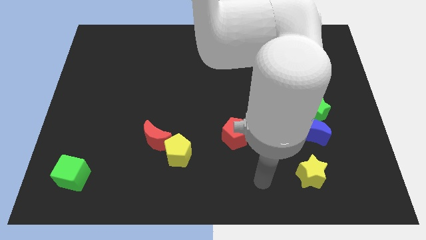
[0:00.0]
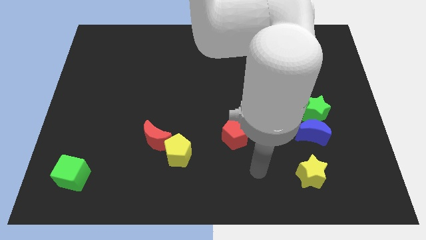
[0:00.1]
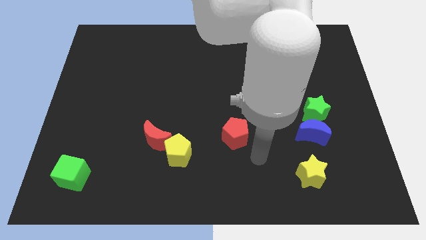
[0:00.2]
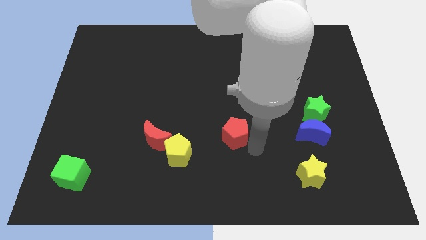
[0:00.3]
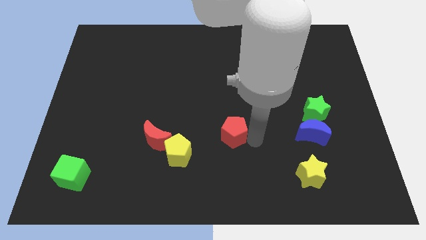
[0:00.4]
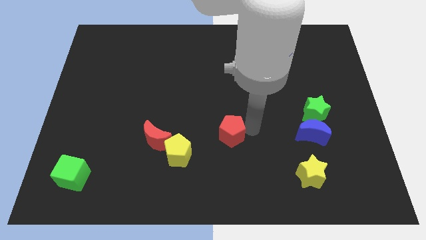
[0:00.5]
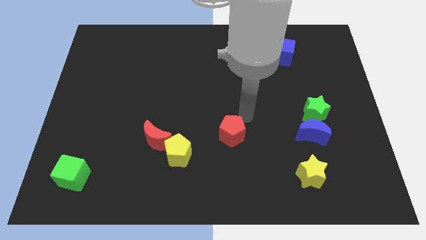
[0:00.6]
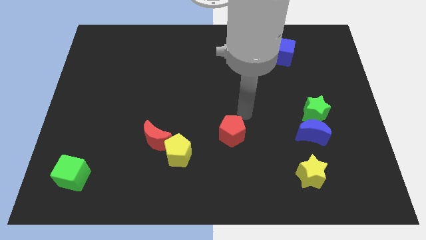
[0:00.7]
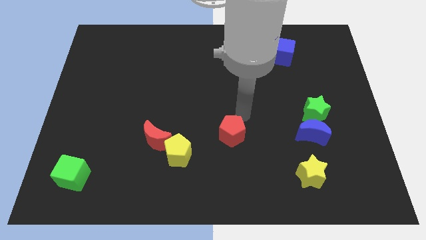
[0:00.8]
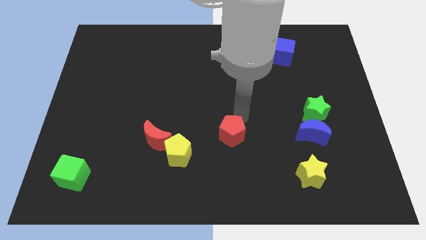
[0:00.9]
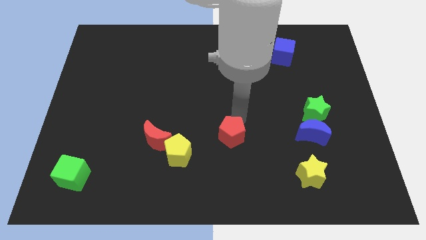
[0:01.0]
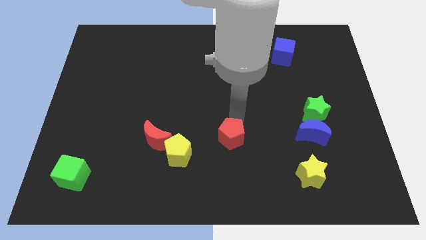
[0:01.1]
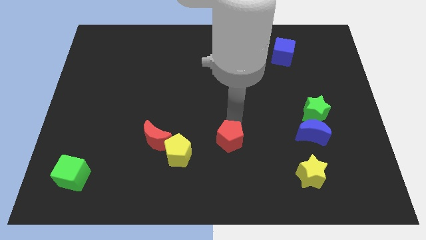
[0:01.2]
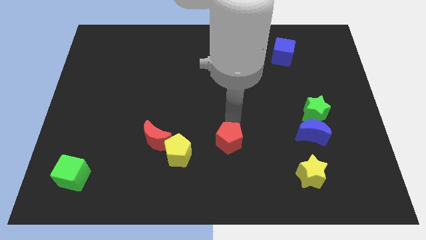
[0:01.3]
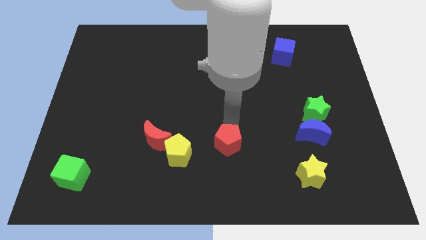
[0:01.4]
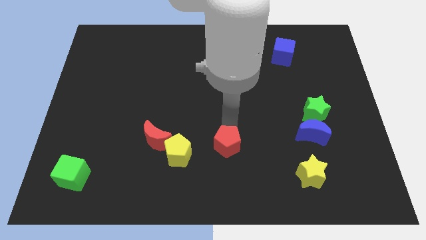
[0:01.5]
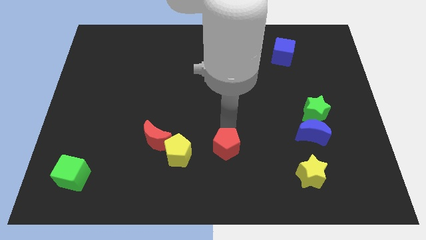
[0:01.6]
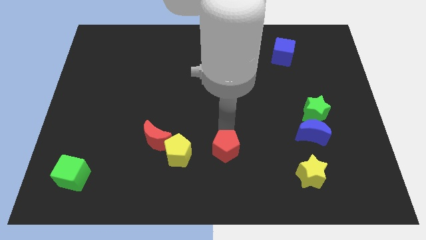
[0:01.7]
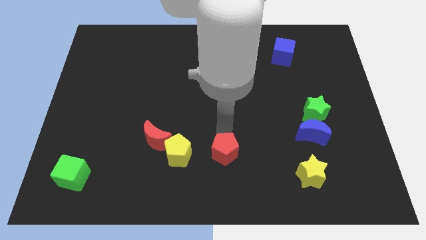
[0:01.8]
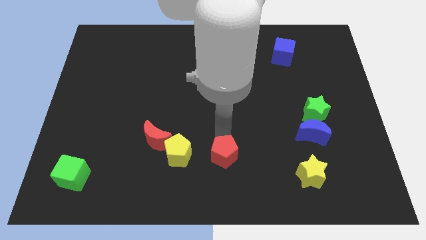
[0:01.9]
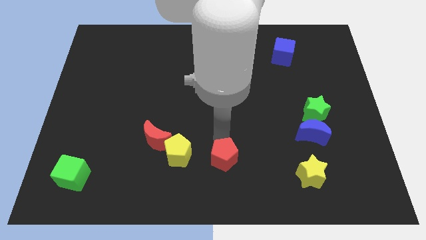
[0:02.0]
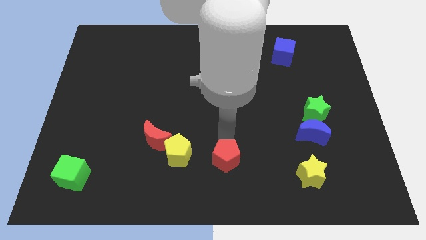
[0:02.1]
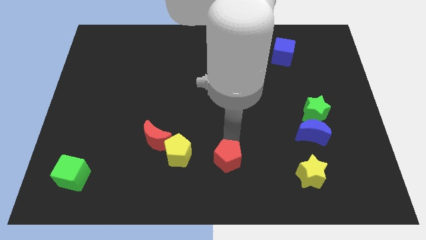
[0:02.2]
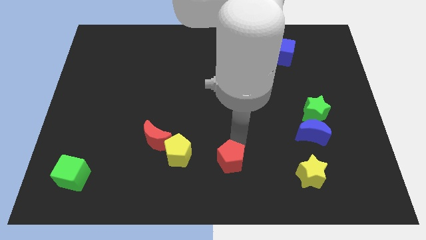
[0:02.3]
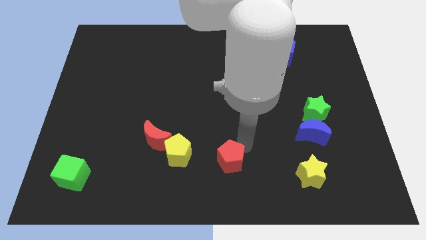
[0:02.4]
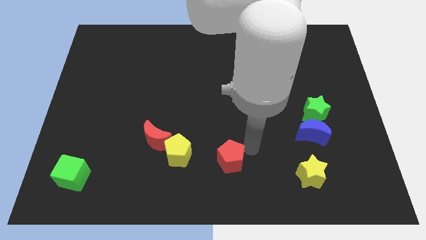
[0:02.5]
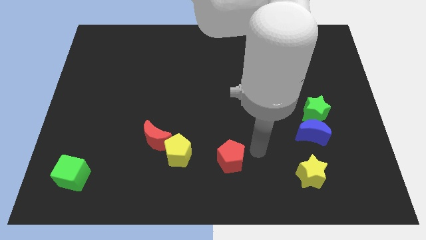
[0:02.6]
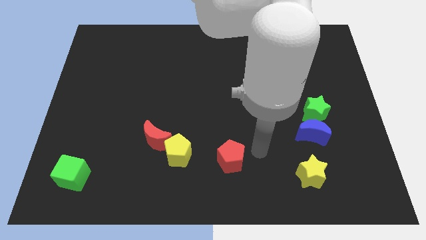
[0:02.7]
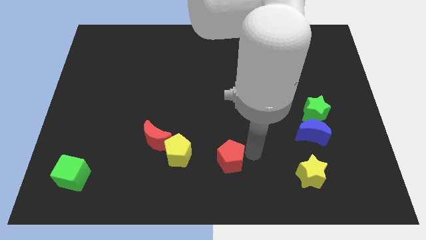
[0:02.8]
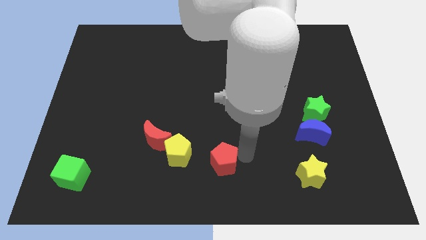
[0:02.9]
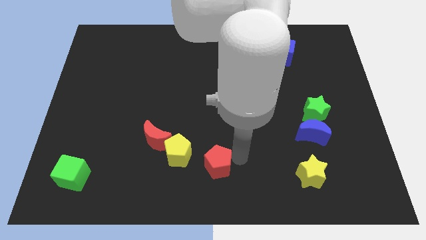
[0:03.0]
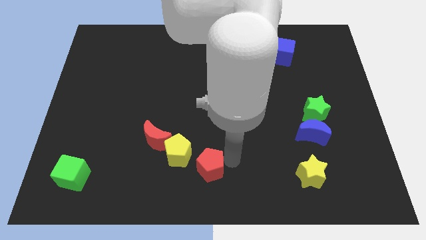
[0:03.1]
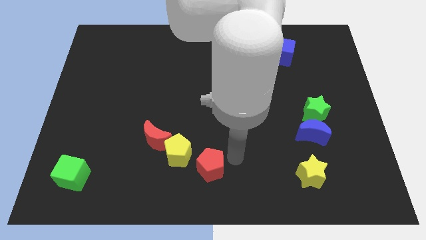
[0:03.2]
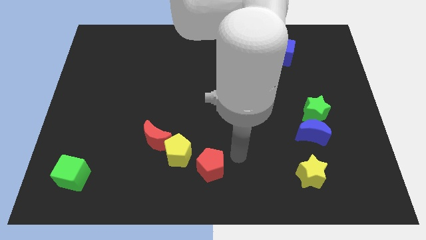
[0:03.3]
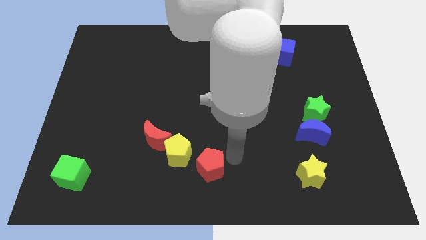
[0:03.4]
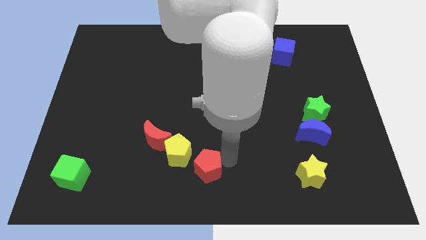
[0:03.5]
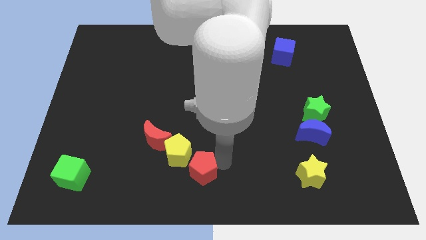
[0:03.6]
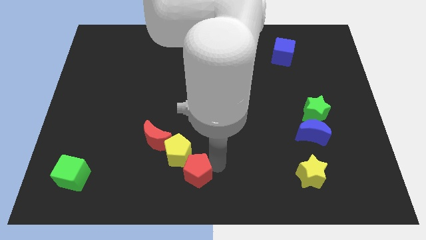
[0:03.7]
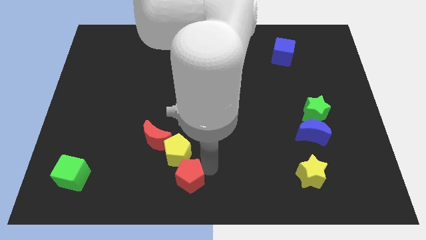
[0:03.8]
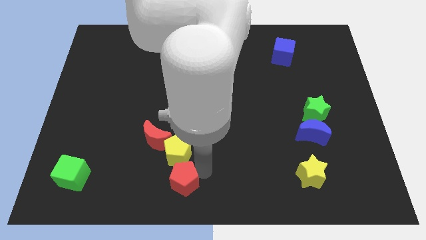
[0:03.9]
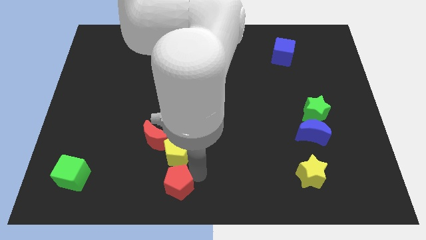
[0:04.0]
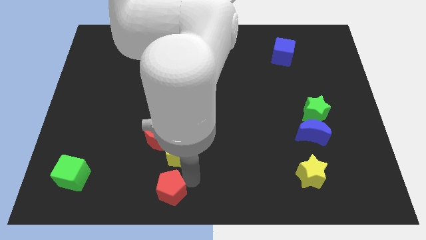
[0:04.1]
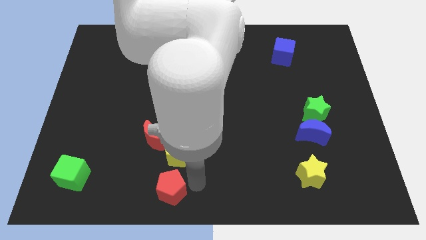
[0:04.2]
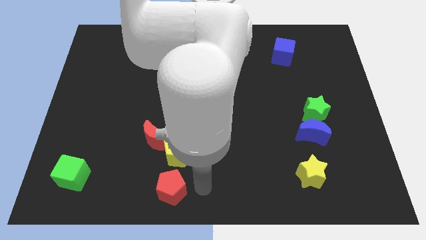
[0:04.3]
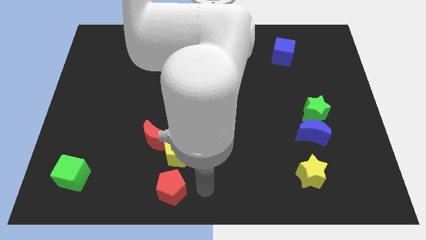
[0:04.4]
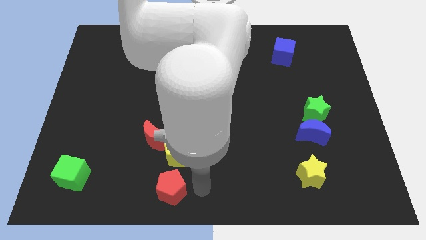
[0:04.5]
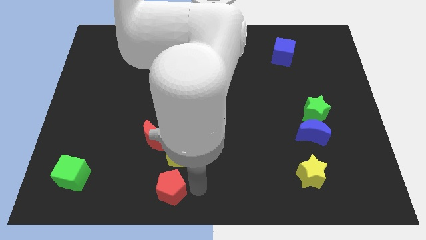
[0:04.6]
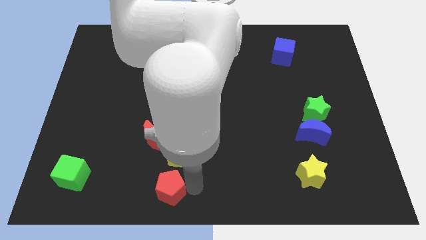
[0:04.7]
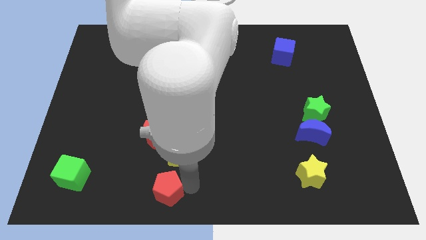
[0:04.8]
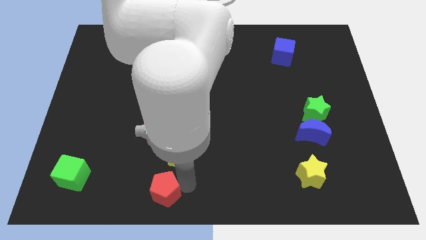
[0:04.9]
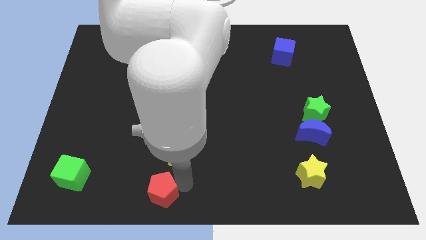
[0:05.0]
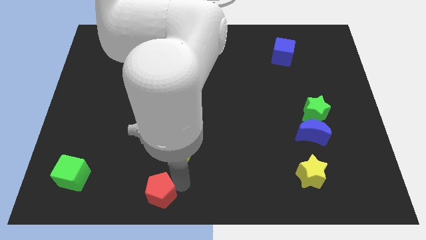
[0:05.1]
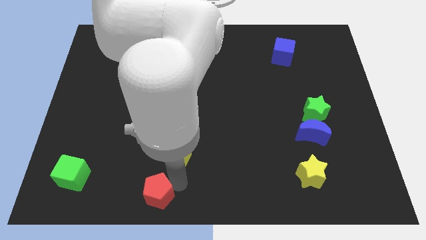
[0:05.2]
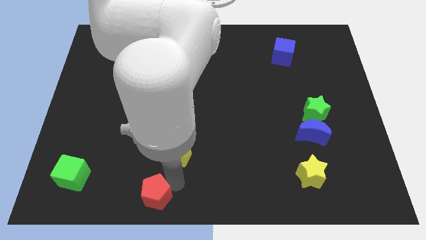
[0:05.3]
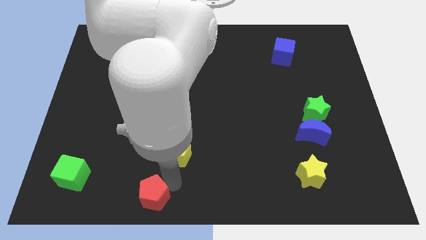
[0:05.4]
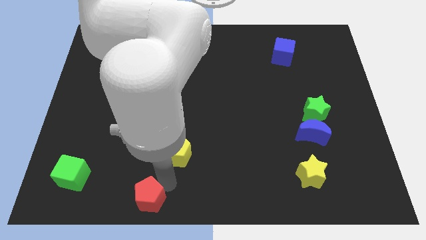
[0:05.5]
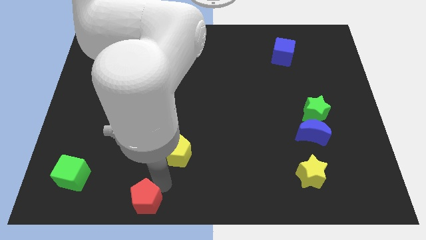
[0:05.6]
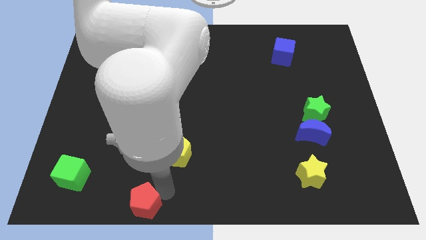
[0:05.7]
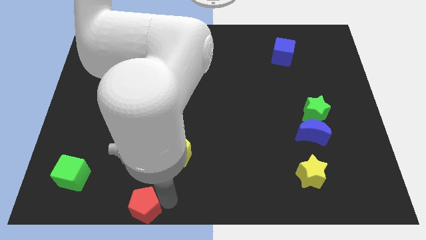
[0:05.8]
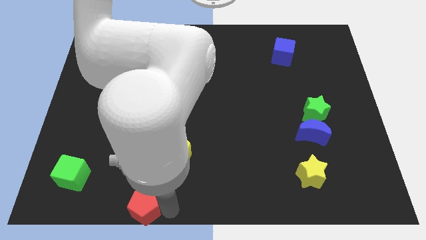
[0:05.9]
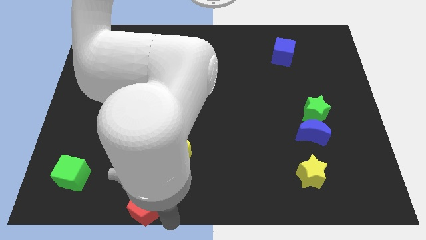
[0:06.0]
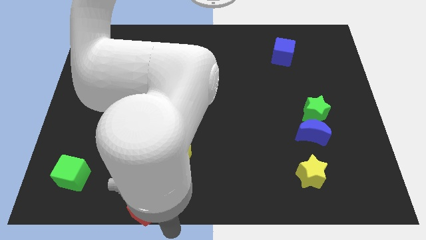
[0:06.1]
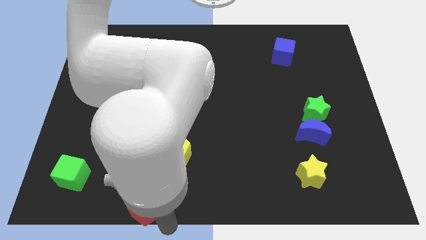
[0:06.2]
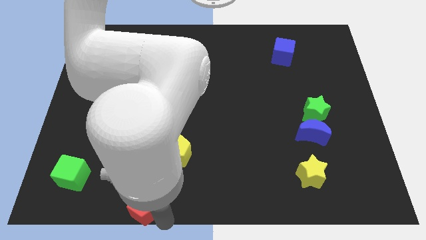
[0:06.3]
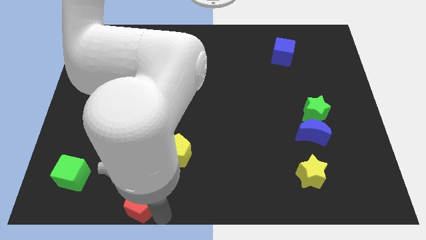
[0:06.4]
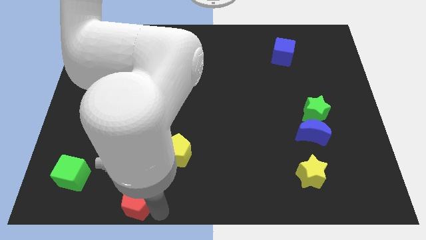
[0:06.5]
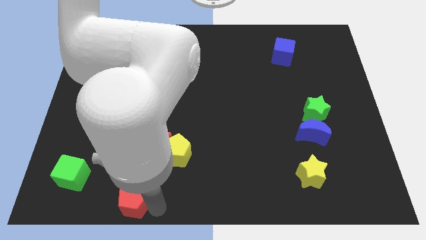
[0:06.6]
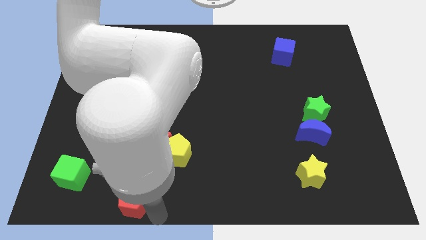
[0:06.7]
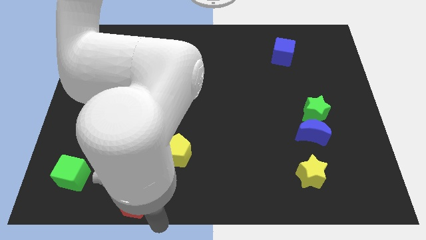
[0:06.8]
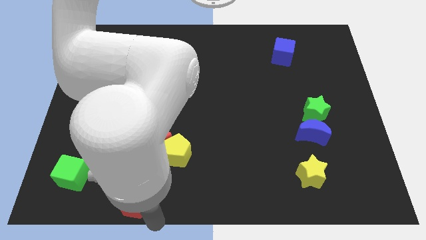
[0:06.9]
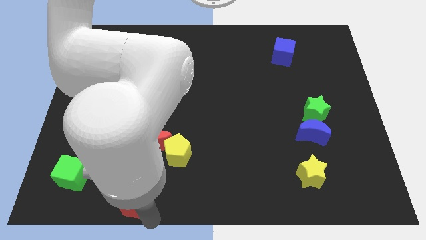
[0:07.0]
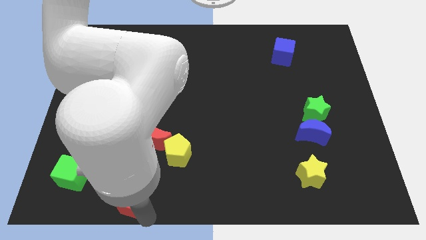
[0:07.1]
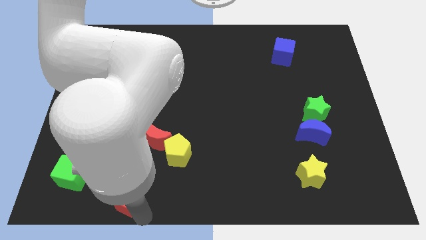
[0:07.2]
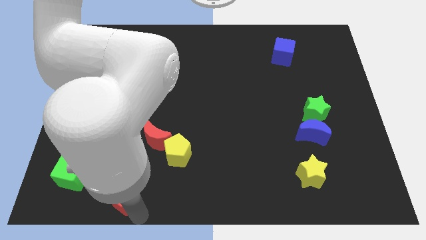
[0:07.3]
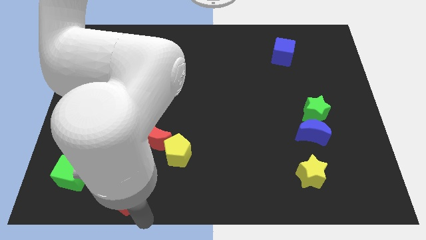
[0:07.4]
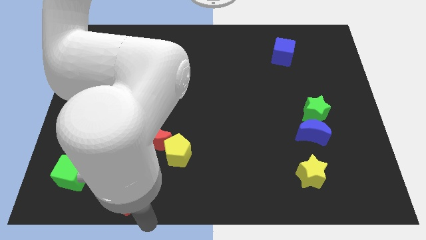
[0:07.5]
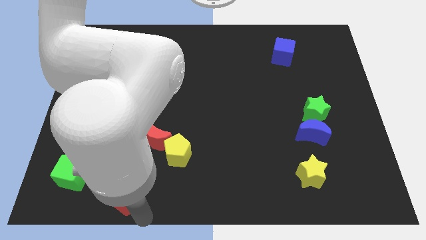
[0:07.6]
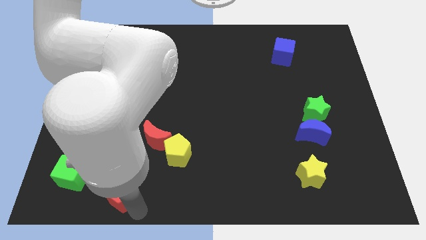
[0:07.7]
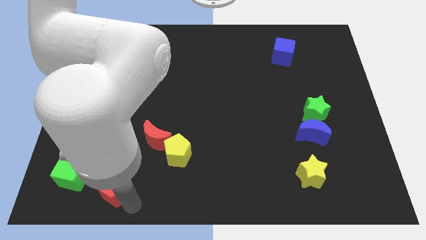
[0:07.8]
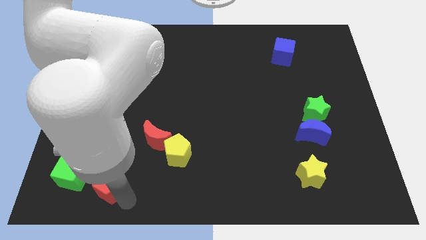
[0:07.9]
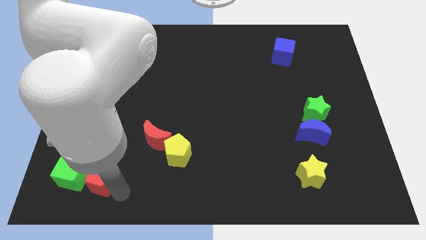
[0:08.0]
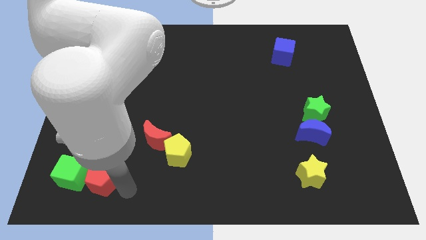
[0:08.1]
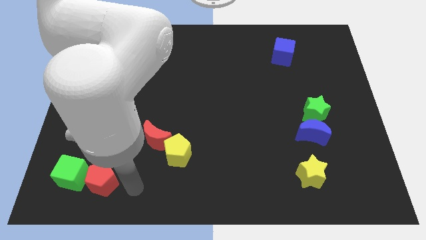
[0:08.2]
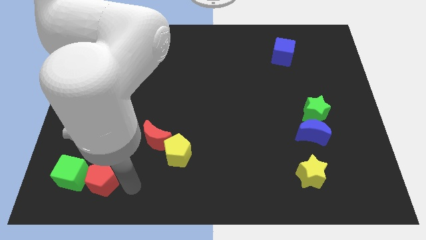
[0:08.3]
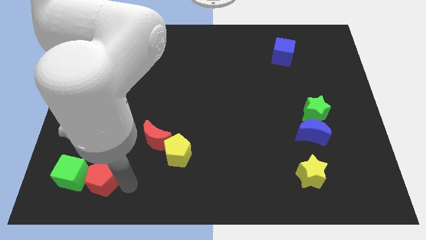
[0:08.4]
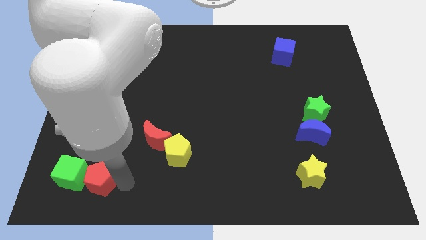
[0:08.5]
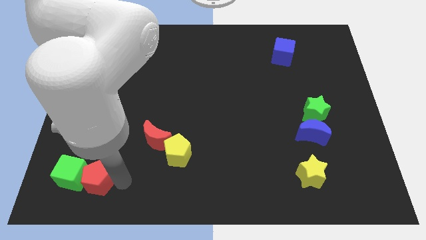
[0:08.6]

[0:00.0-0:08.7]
push the red pentagon towards the green cube
